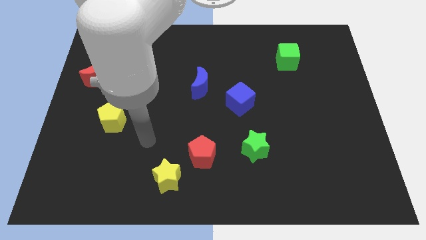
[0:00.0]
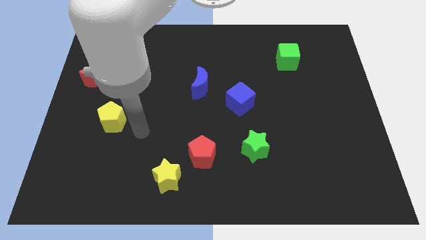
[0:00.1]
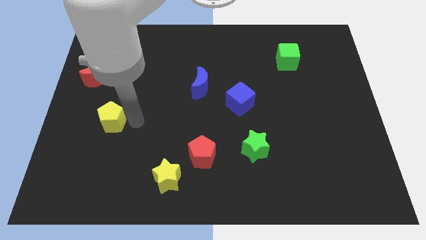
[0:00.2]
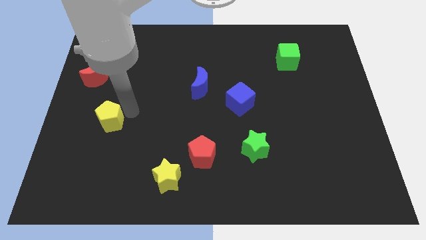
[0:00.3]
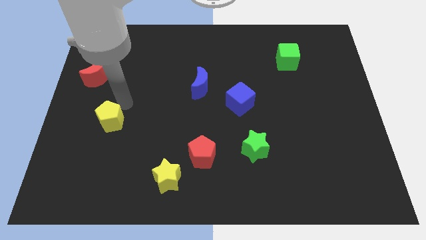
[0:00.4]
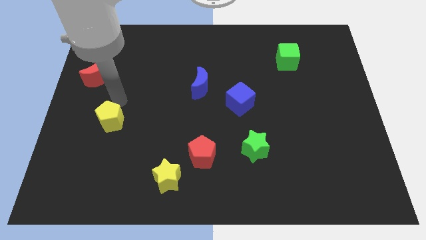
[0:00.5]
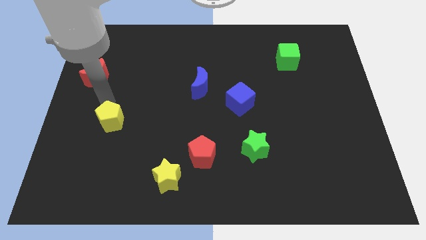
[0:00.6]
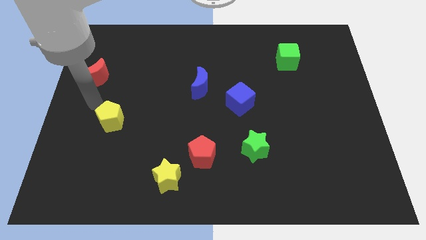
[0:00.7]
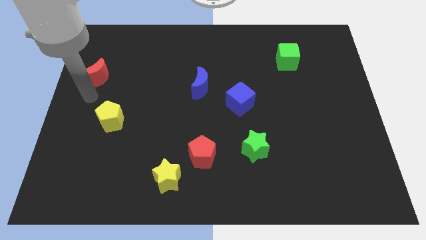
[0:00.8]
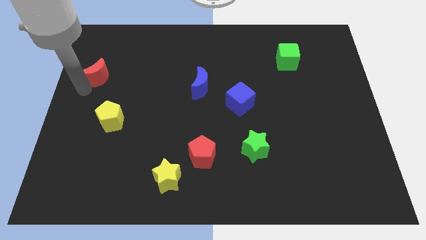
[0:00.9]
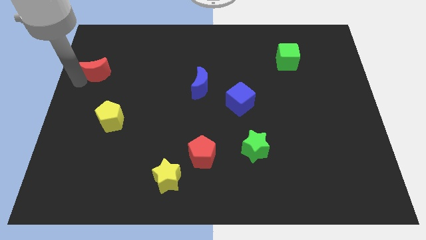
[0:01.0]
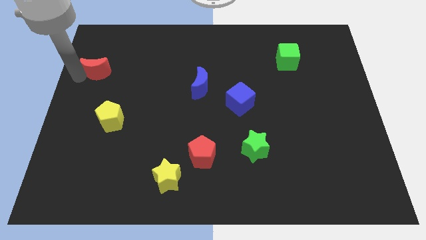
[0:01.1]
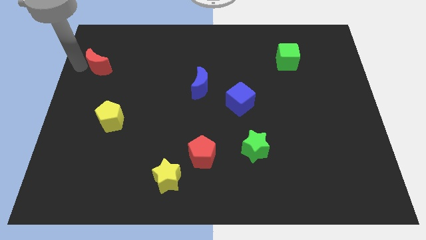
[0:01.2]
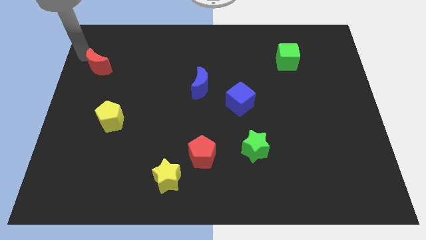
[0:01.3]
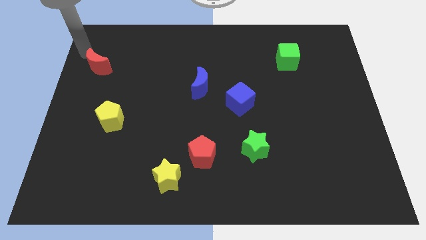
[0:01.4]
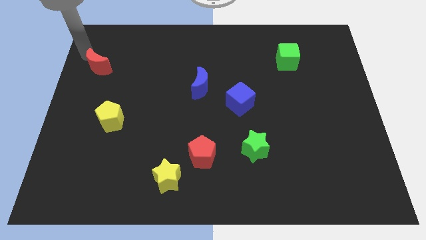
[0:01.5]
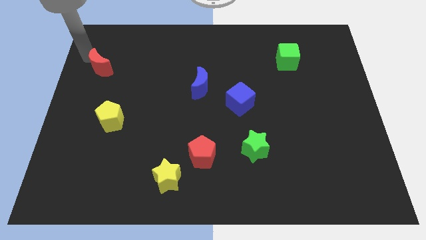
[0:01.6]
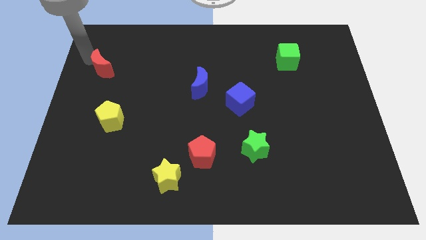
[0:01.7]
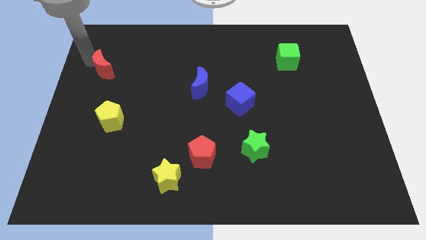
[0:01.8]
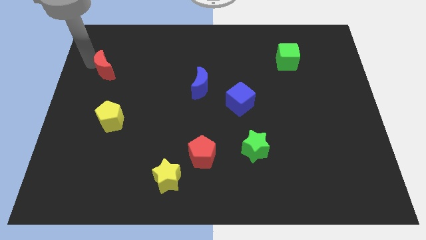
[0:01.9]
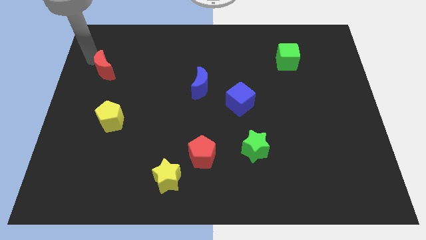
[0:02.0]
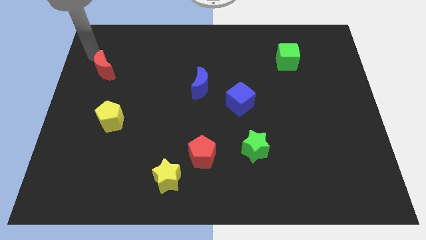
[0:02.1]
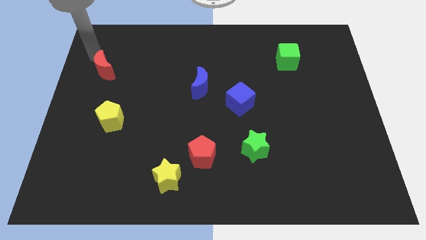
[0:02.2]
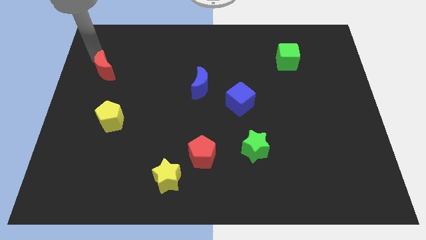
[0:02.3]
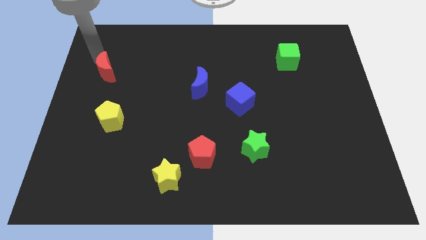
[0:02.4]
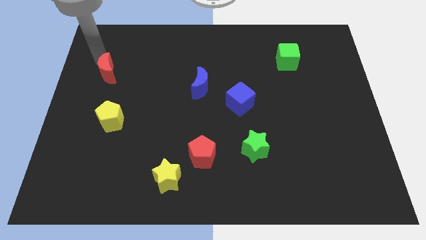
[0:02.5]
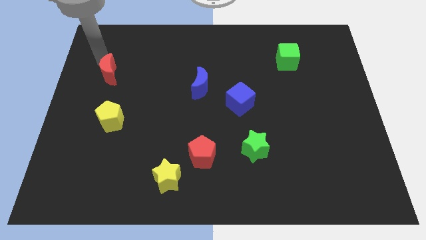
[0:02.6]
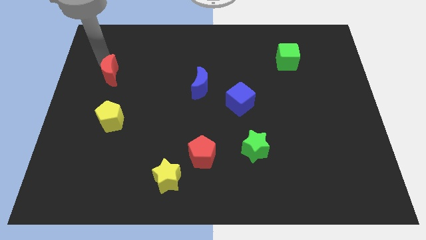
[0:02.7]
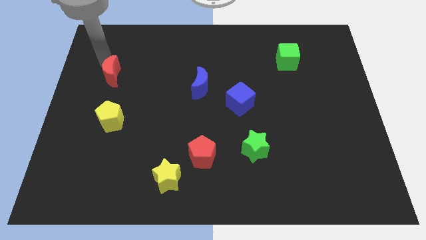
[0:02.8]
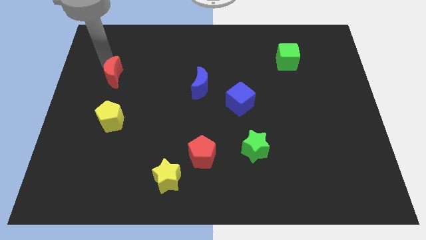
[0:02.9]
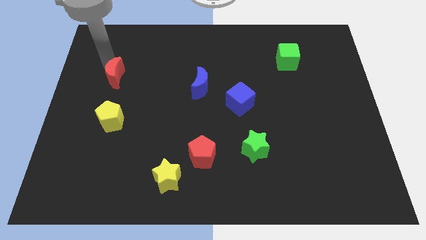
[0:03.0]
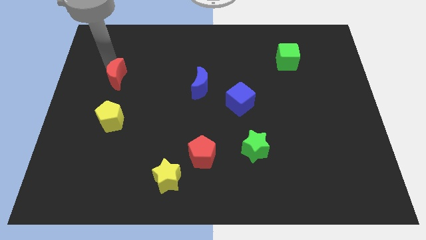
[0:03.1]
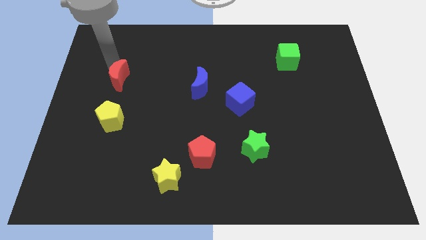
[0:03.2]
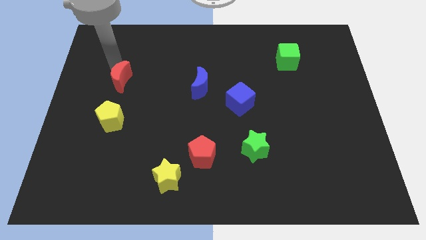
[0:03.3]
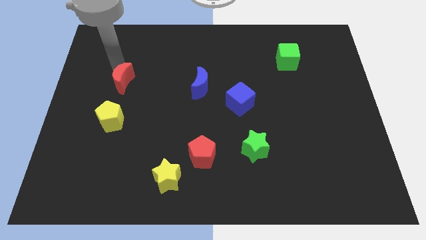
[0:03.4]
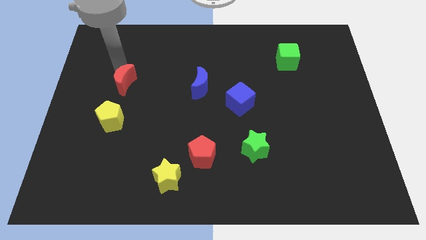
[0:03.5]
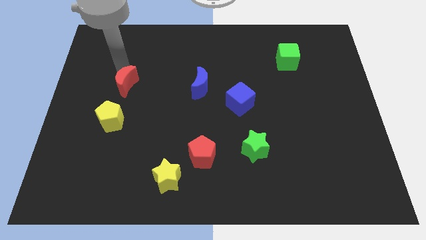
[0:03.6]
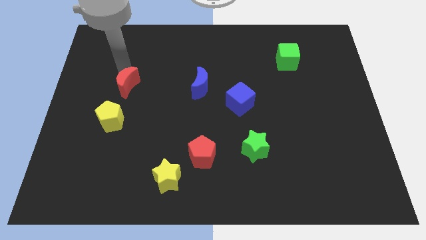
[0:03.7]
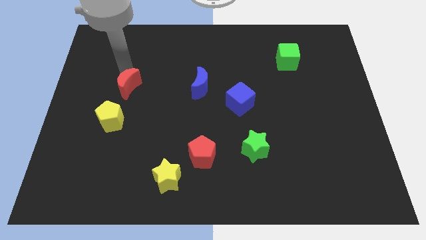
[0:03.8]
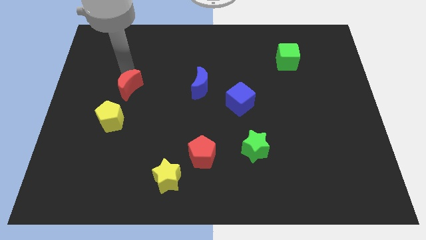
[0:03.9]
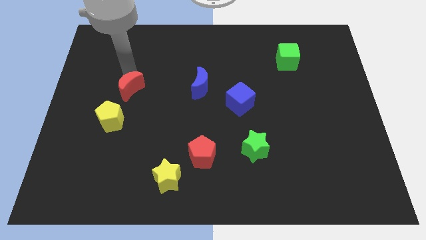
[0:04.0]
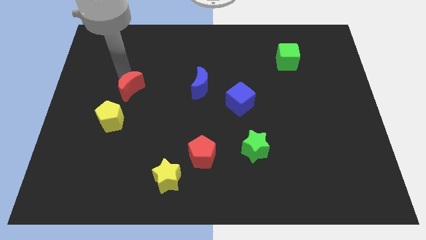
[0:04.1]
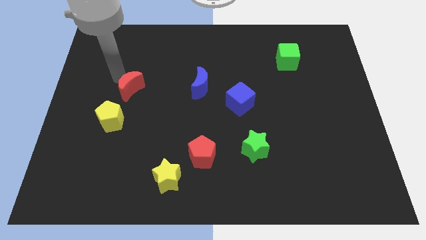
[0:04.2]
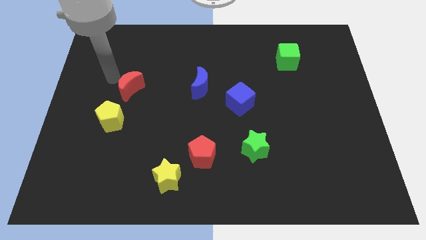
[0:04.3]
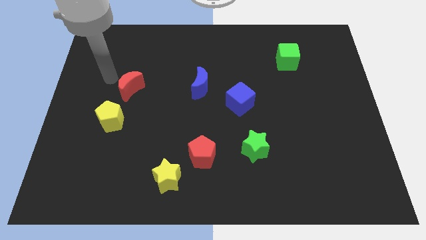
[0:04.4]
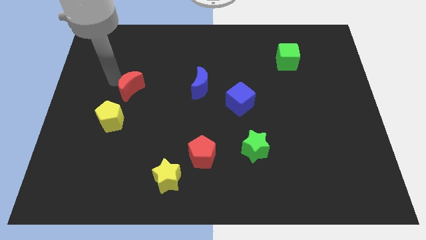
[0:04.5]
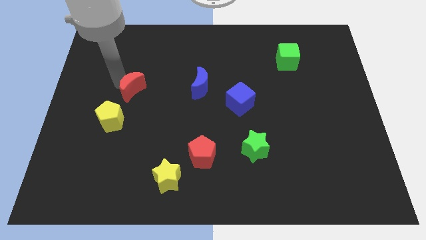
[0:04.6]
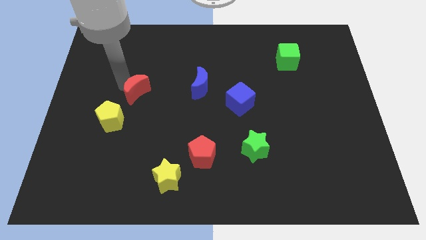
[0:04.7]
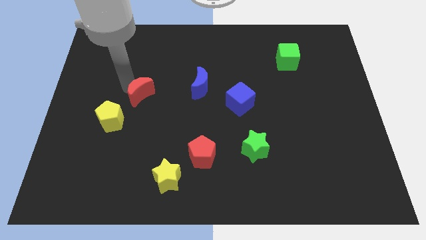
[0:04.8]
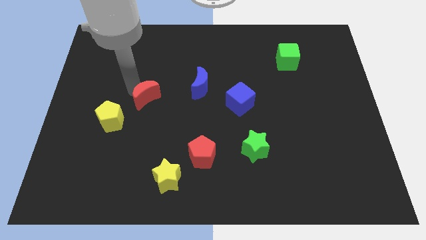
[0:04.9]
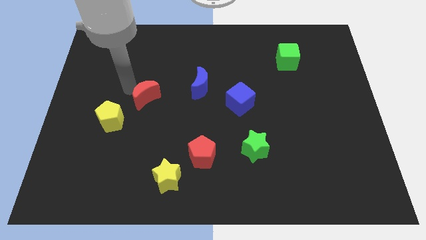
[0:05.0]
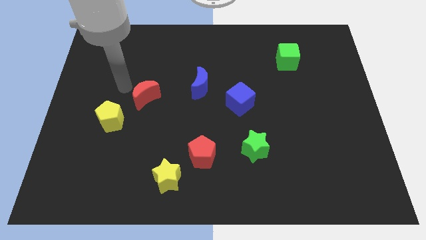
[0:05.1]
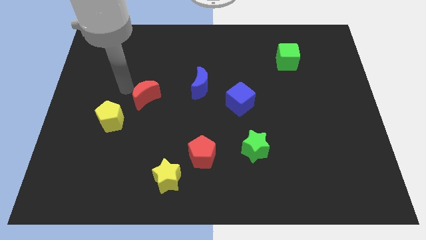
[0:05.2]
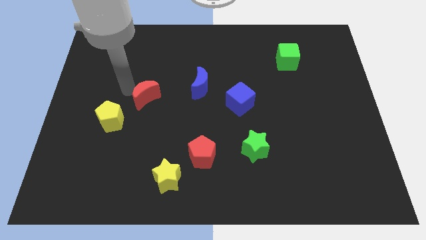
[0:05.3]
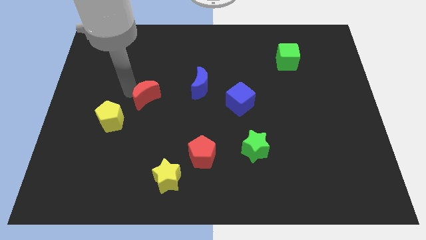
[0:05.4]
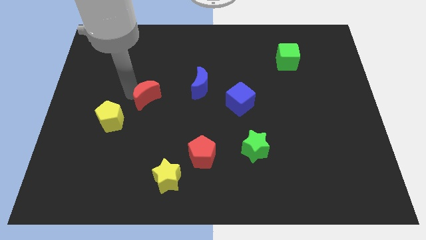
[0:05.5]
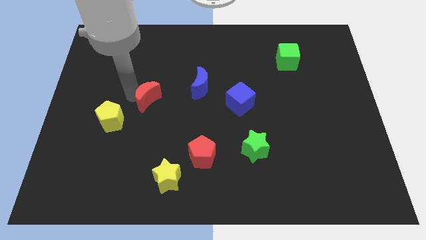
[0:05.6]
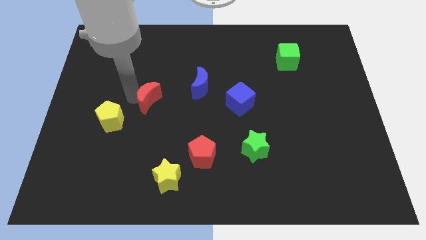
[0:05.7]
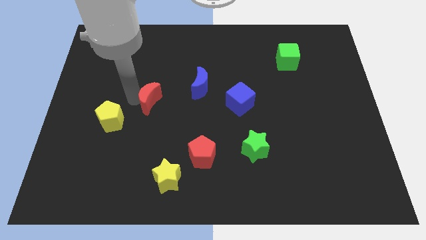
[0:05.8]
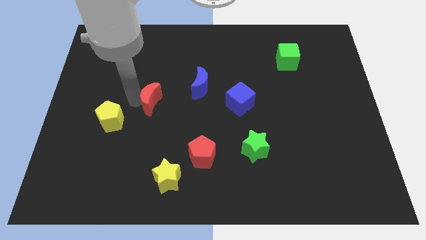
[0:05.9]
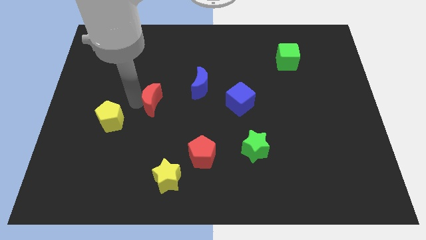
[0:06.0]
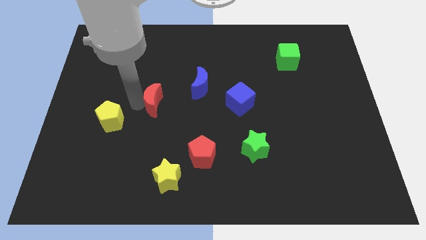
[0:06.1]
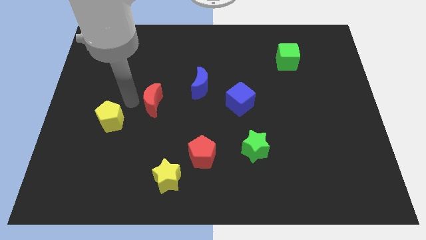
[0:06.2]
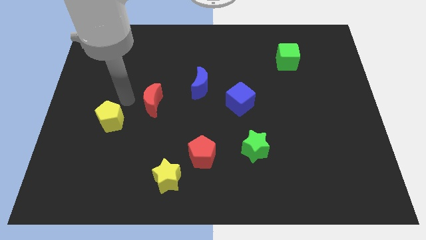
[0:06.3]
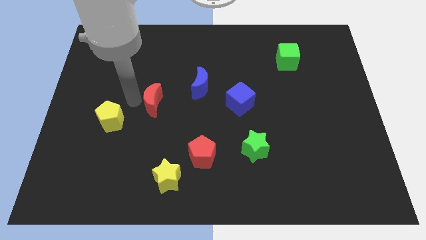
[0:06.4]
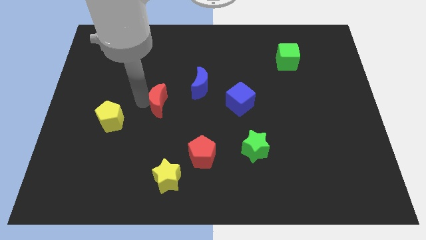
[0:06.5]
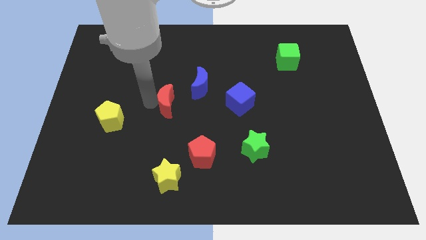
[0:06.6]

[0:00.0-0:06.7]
put the red moon to the center
